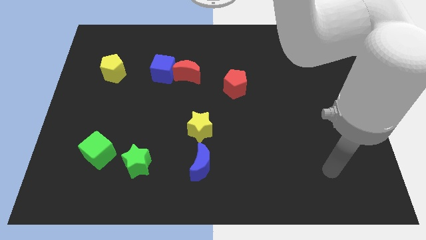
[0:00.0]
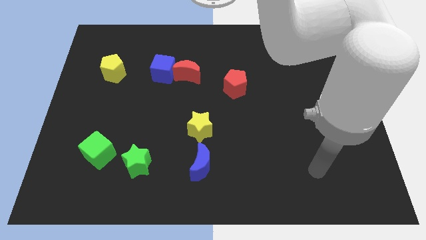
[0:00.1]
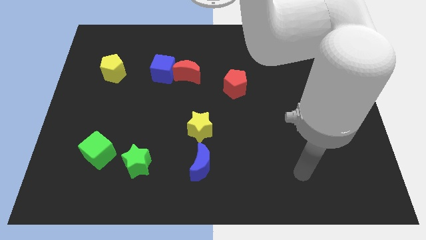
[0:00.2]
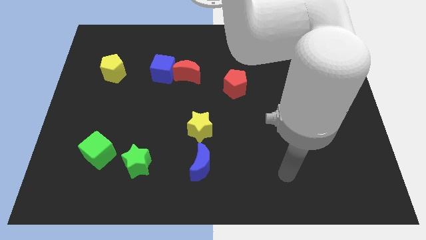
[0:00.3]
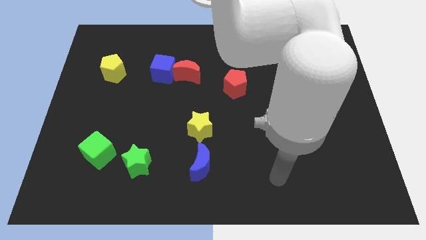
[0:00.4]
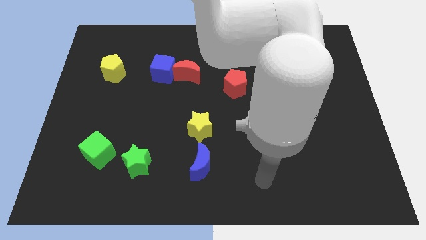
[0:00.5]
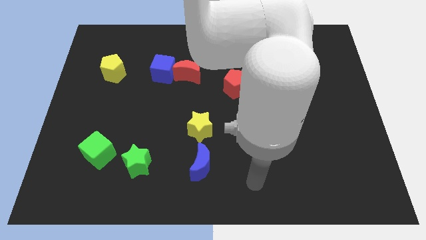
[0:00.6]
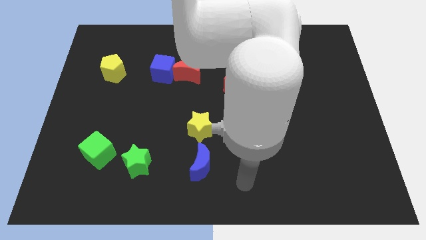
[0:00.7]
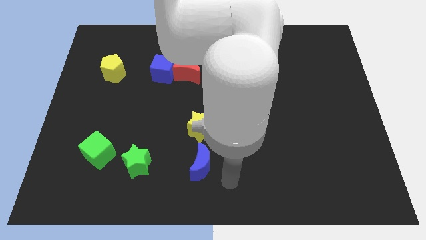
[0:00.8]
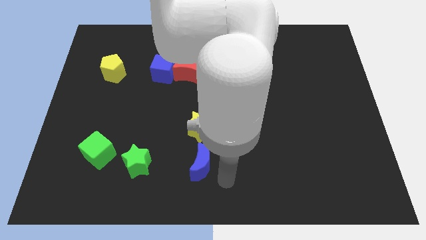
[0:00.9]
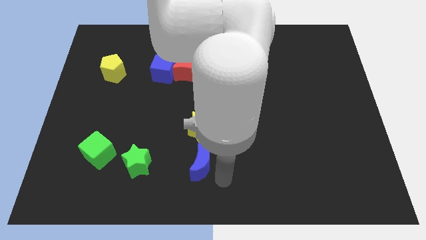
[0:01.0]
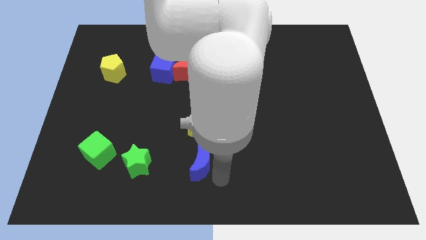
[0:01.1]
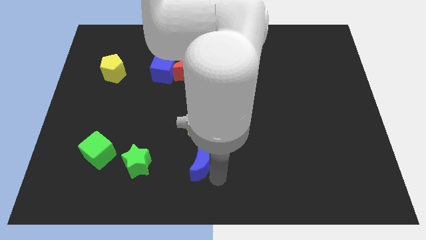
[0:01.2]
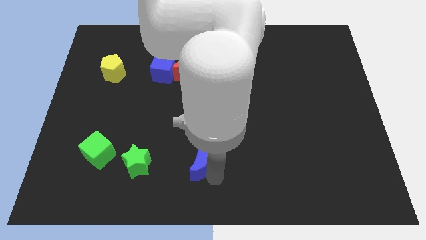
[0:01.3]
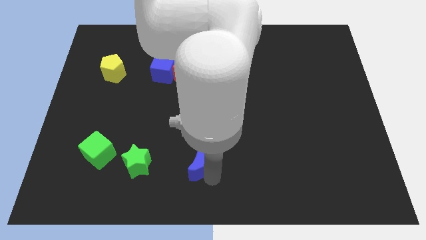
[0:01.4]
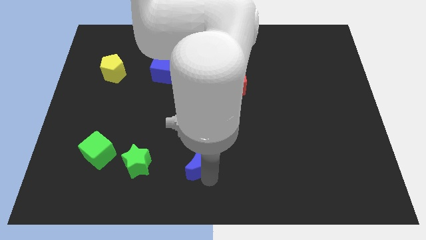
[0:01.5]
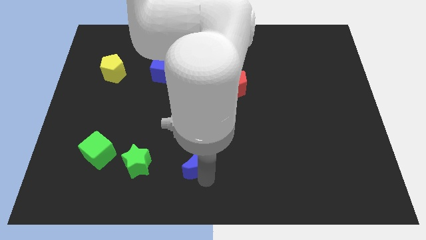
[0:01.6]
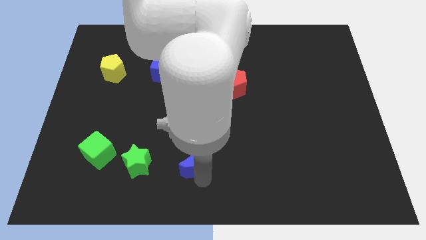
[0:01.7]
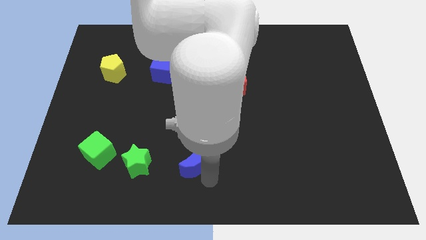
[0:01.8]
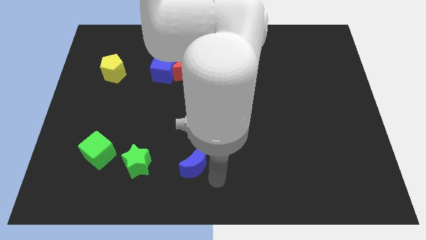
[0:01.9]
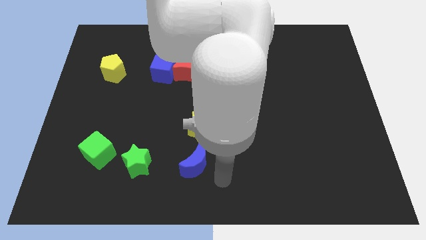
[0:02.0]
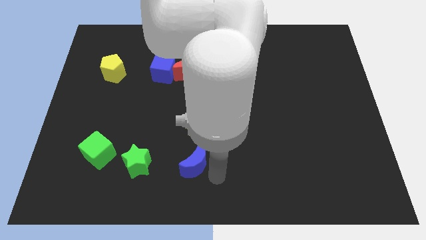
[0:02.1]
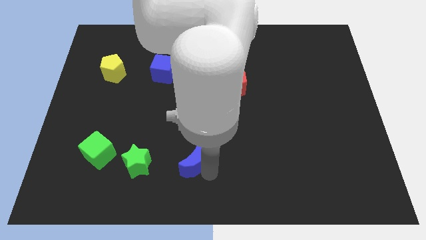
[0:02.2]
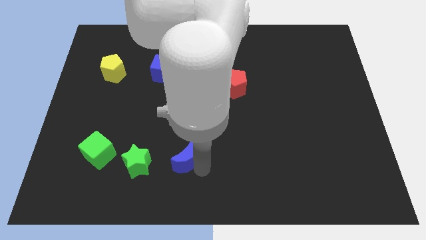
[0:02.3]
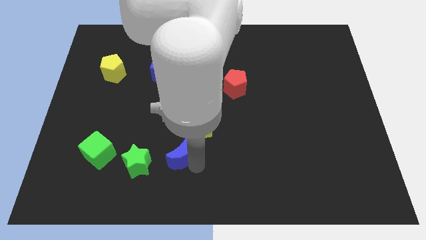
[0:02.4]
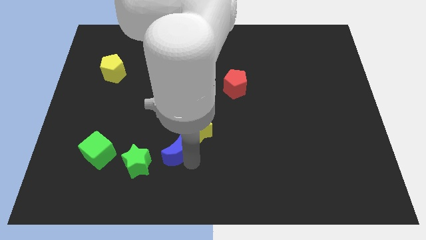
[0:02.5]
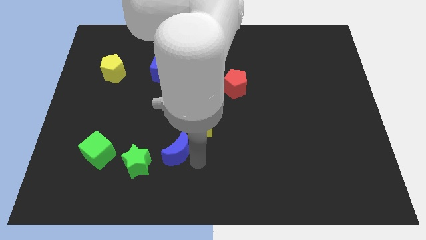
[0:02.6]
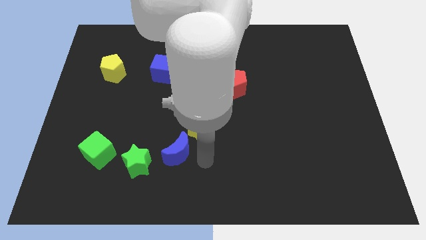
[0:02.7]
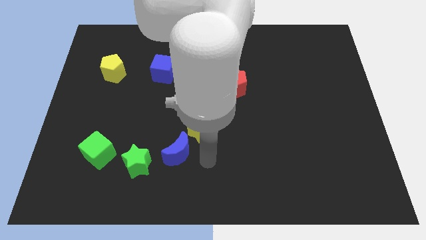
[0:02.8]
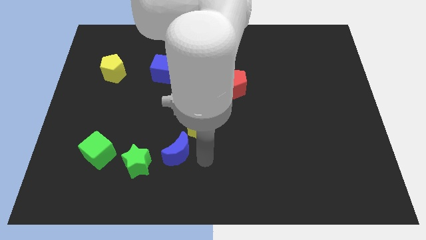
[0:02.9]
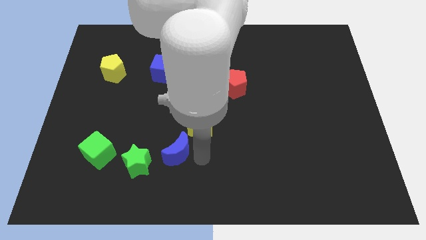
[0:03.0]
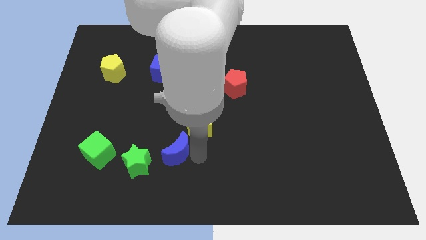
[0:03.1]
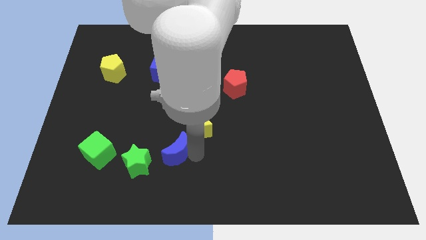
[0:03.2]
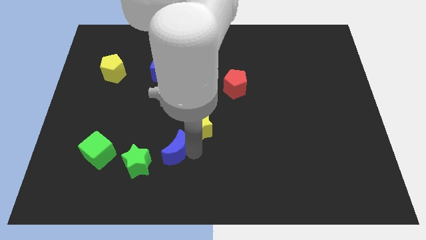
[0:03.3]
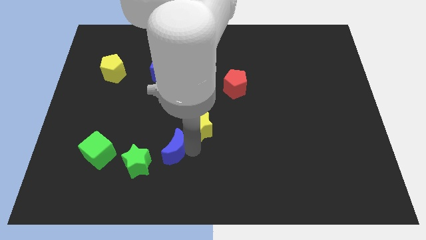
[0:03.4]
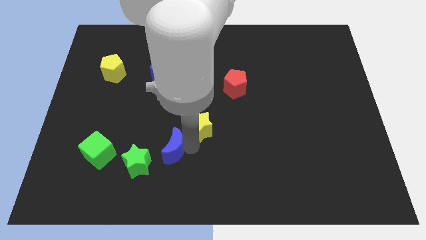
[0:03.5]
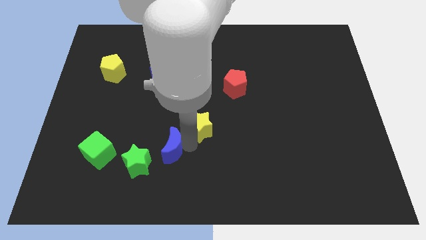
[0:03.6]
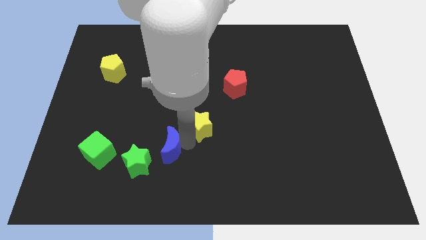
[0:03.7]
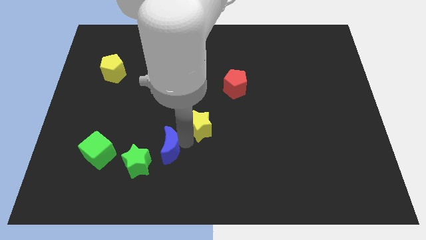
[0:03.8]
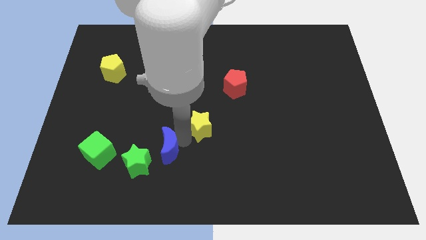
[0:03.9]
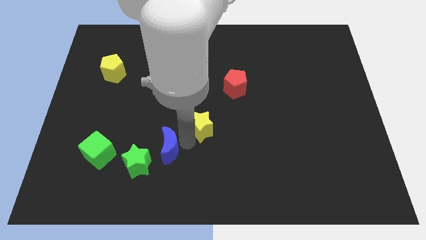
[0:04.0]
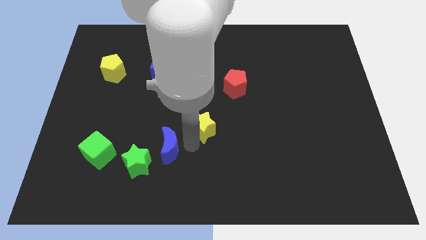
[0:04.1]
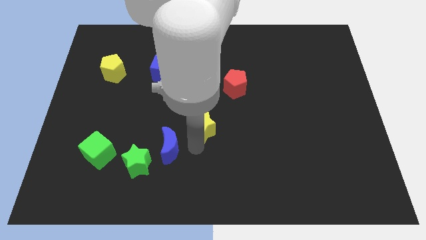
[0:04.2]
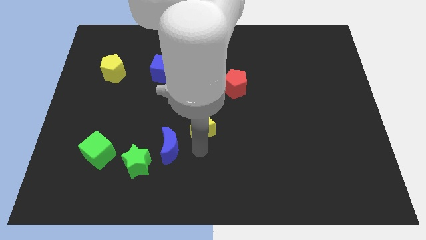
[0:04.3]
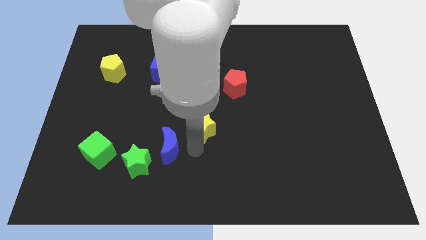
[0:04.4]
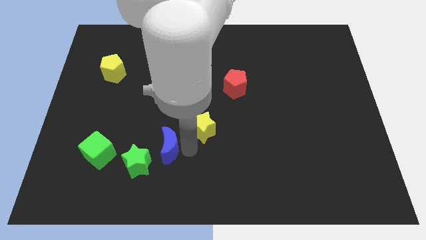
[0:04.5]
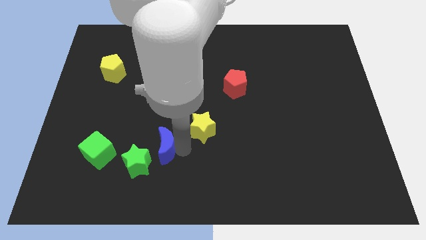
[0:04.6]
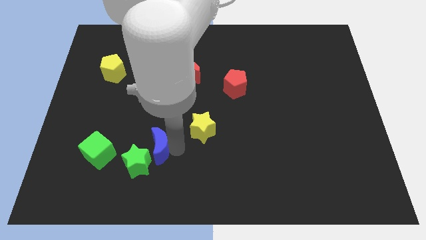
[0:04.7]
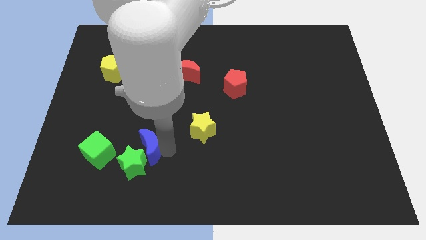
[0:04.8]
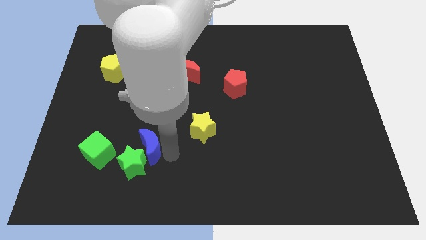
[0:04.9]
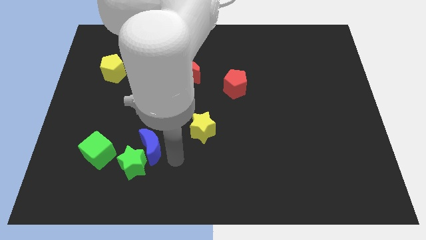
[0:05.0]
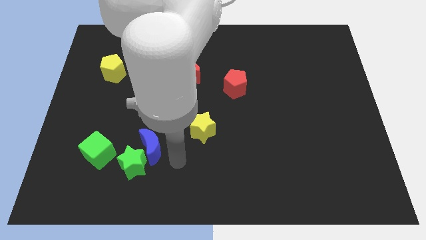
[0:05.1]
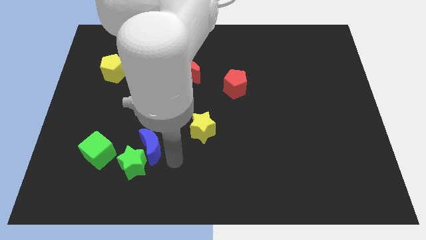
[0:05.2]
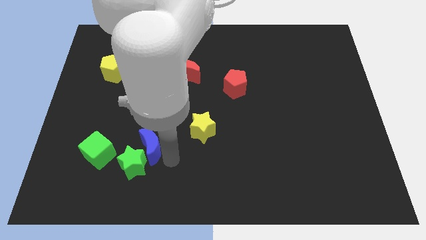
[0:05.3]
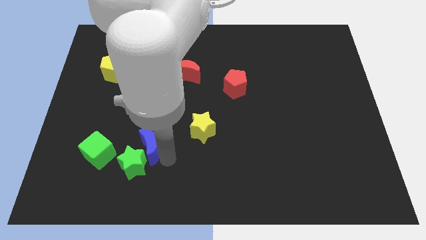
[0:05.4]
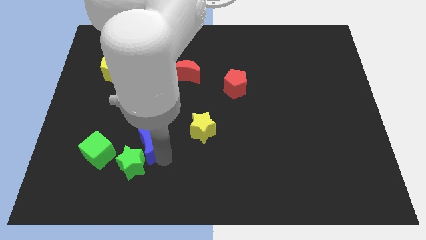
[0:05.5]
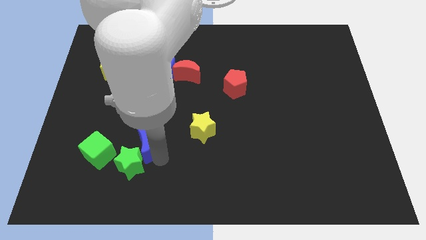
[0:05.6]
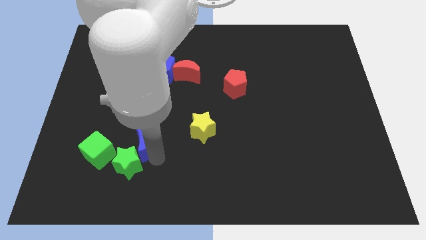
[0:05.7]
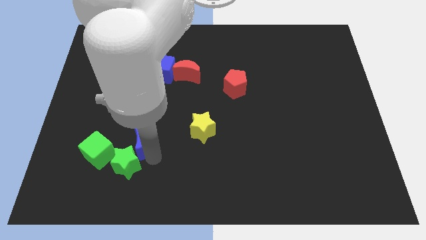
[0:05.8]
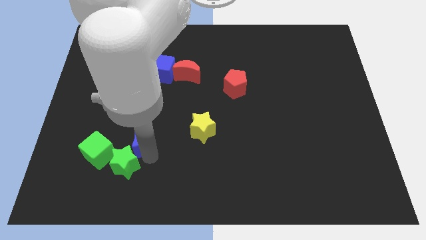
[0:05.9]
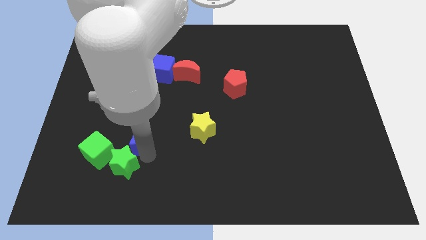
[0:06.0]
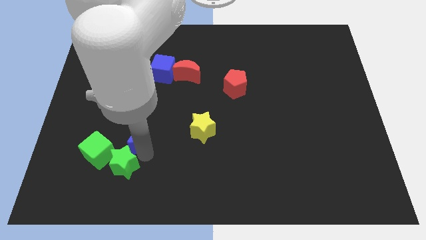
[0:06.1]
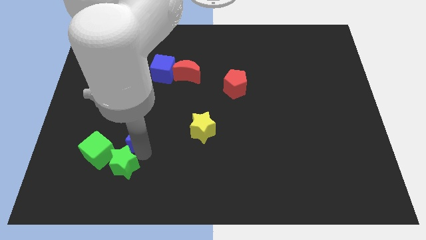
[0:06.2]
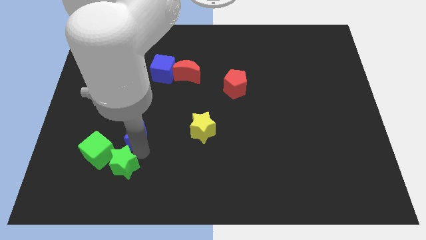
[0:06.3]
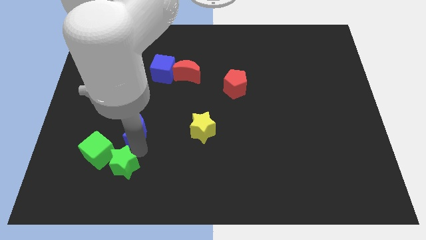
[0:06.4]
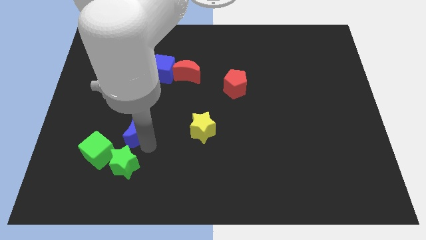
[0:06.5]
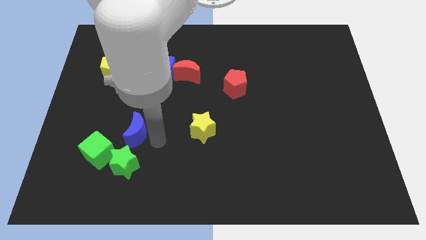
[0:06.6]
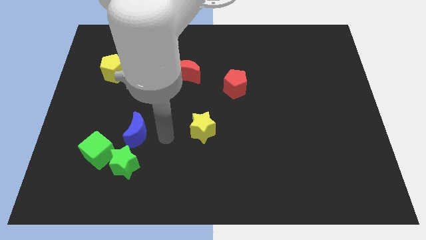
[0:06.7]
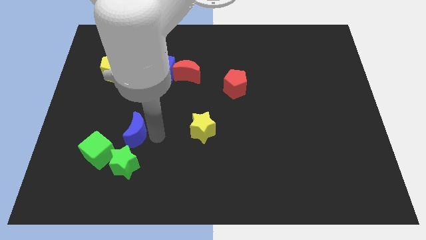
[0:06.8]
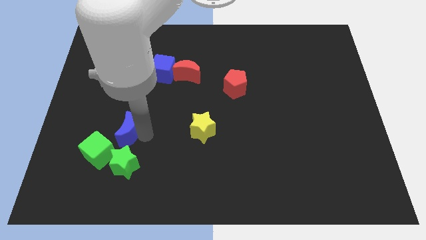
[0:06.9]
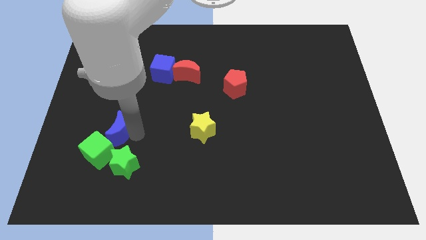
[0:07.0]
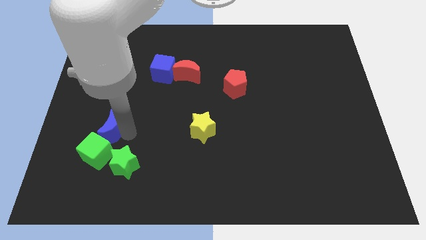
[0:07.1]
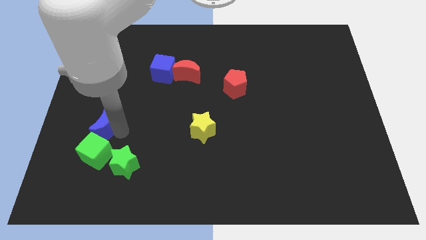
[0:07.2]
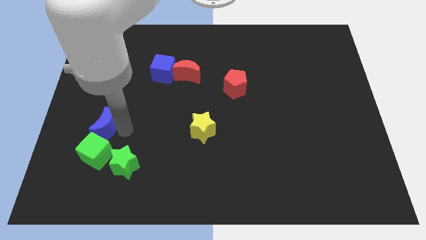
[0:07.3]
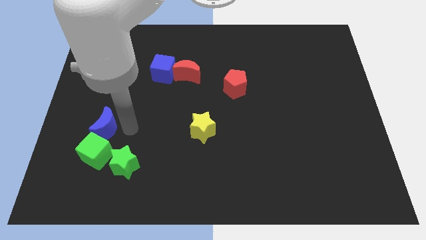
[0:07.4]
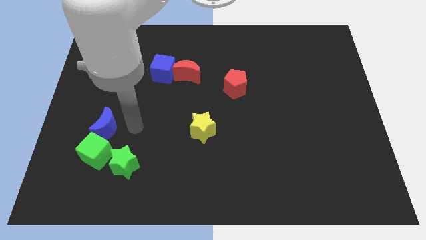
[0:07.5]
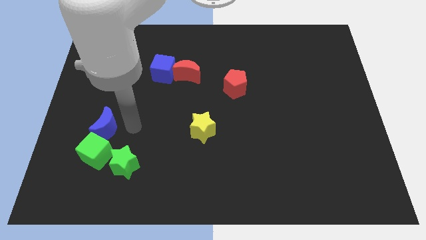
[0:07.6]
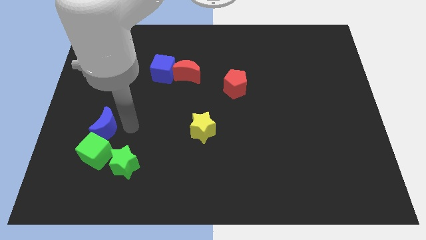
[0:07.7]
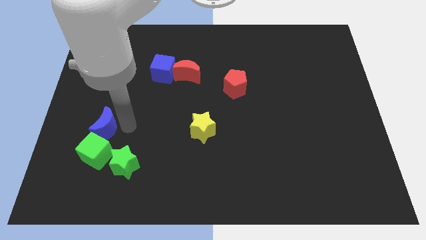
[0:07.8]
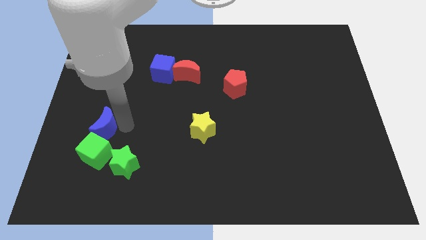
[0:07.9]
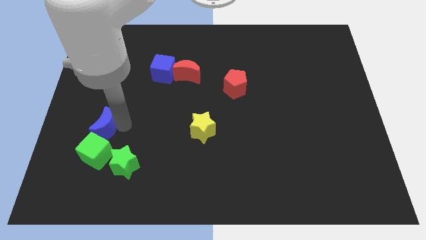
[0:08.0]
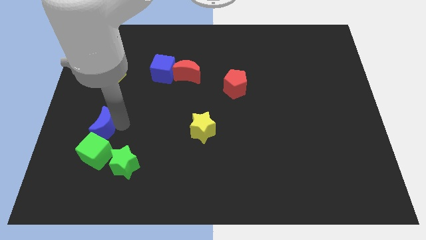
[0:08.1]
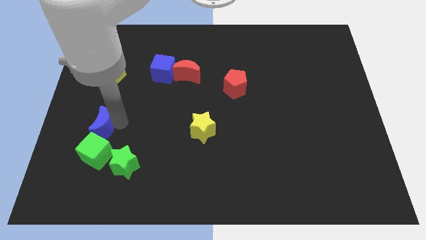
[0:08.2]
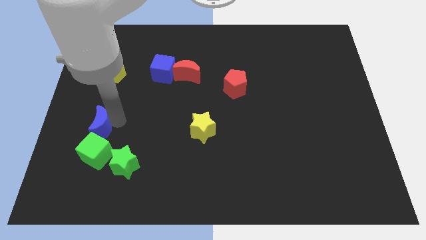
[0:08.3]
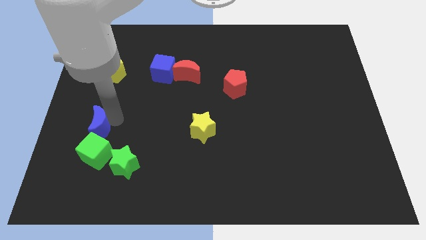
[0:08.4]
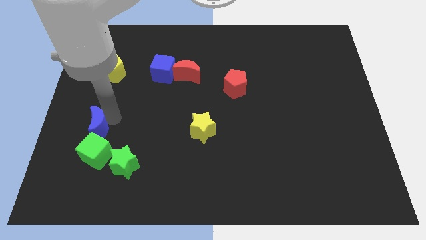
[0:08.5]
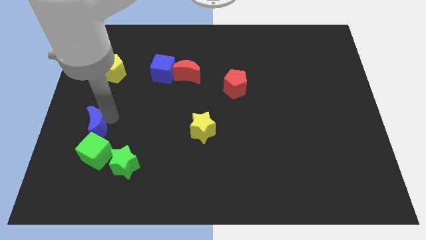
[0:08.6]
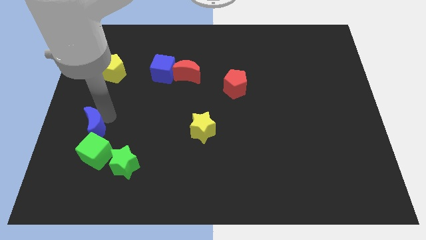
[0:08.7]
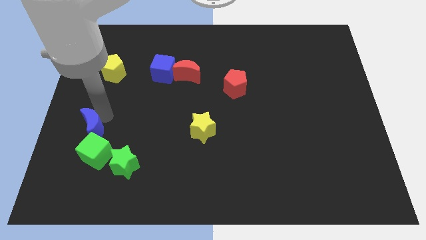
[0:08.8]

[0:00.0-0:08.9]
move the blue moon to the center left
